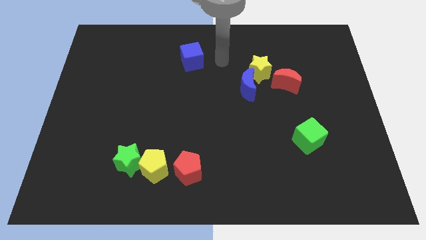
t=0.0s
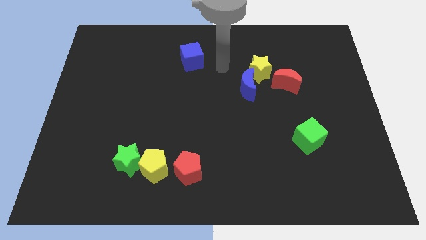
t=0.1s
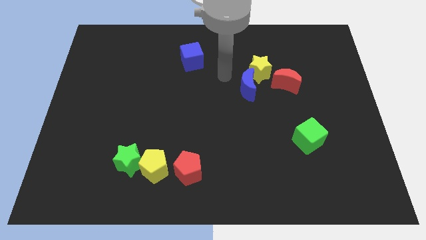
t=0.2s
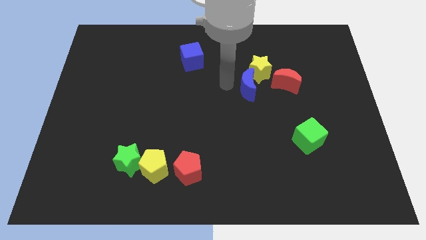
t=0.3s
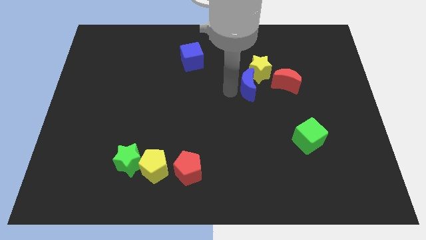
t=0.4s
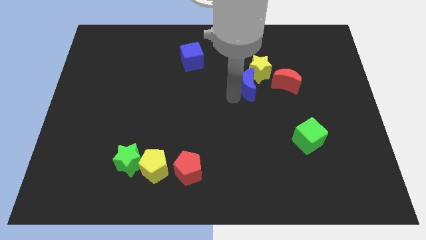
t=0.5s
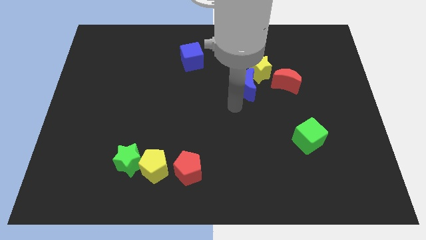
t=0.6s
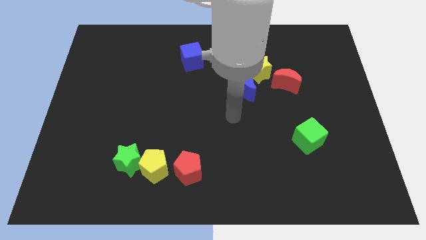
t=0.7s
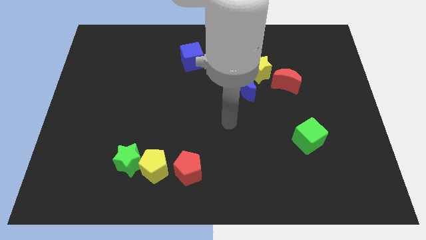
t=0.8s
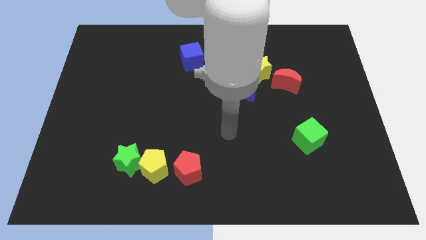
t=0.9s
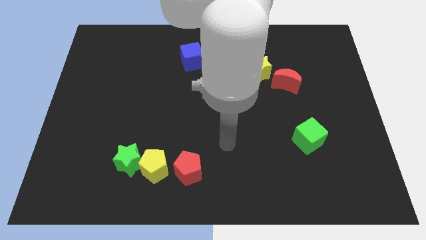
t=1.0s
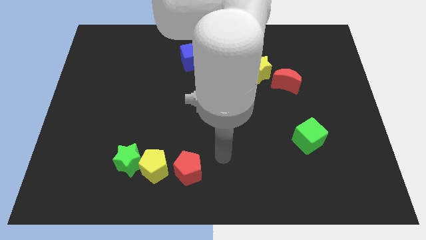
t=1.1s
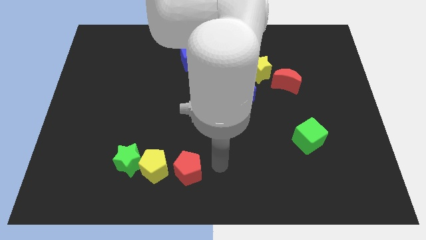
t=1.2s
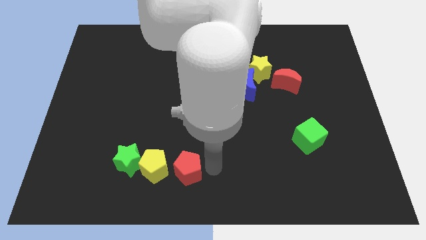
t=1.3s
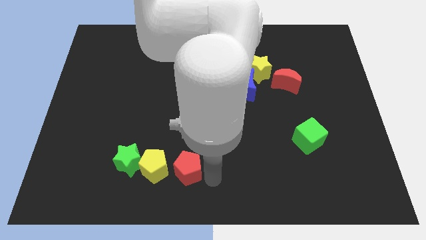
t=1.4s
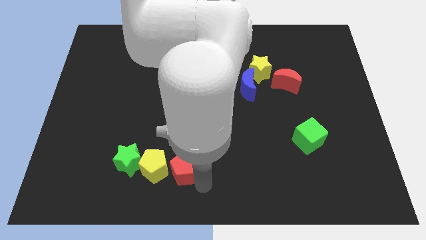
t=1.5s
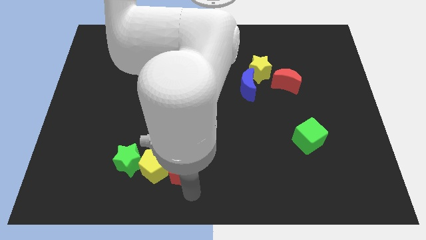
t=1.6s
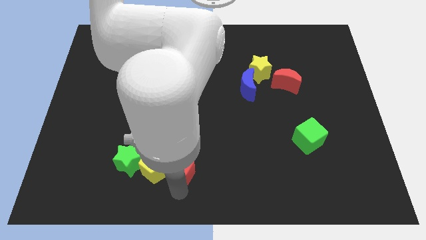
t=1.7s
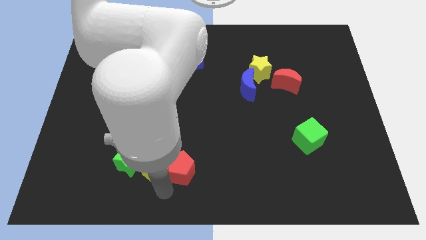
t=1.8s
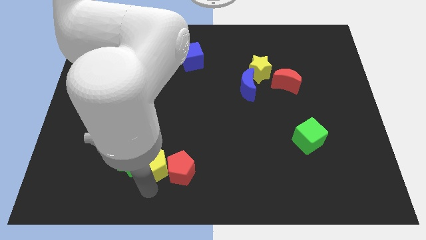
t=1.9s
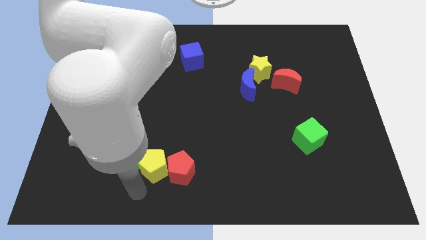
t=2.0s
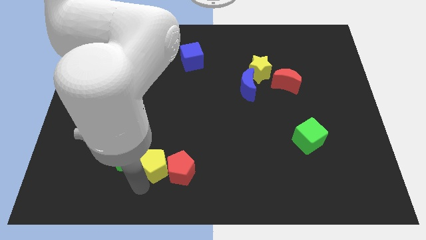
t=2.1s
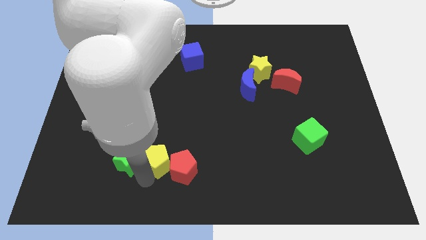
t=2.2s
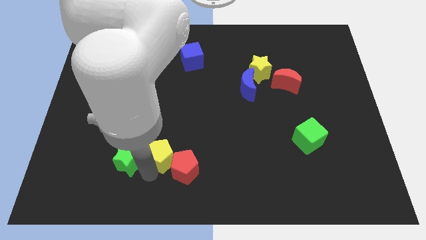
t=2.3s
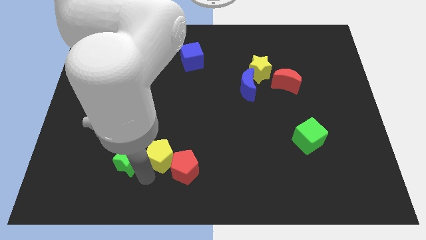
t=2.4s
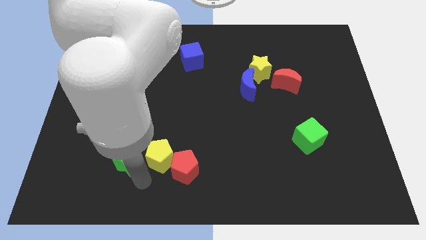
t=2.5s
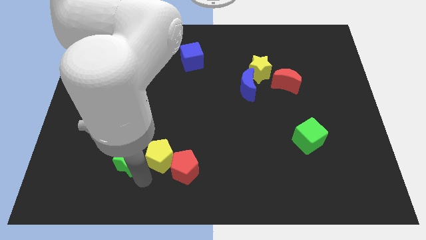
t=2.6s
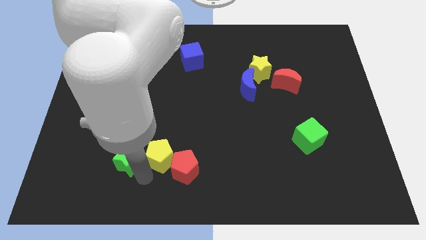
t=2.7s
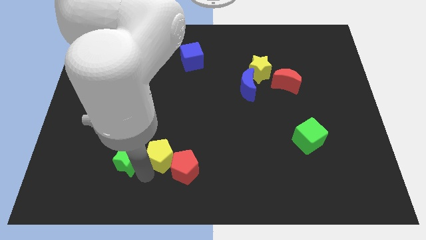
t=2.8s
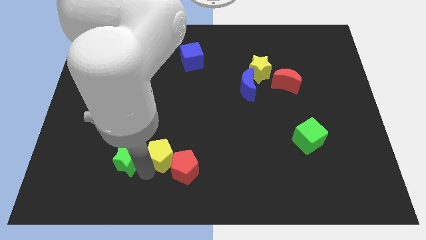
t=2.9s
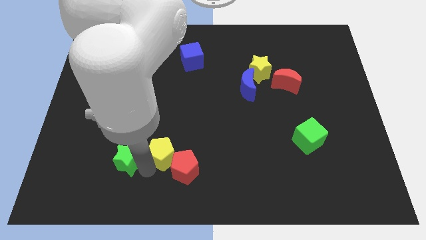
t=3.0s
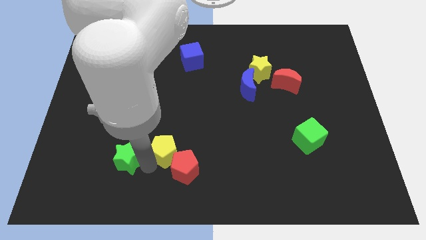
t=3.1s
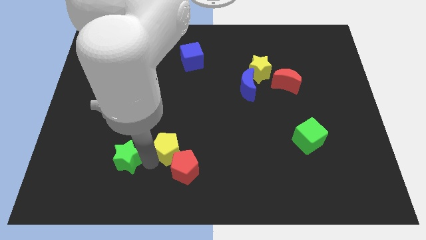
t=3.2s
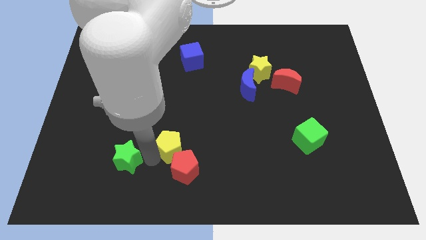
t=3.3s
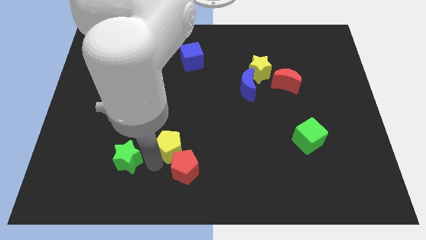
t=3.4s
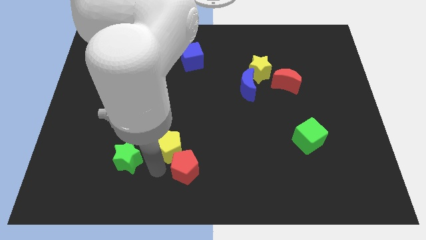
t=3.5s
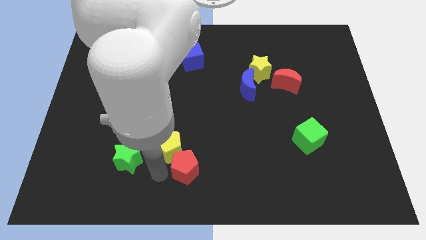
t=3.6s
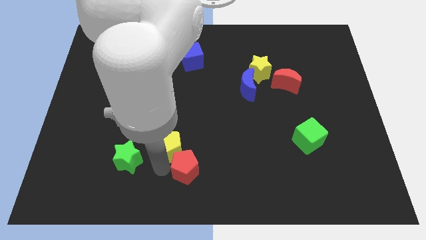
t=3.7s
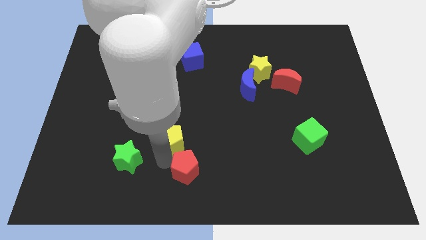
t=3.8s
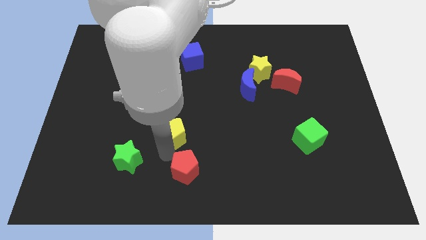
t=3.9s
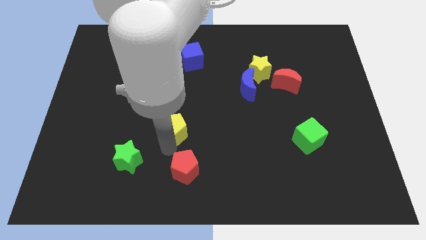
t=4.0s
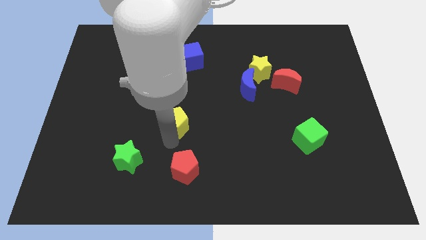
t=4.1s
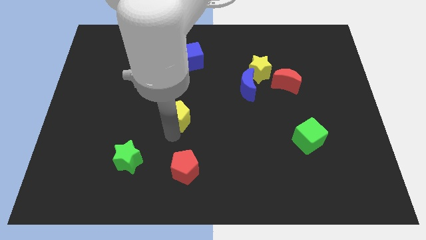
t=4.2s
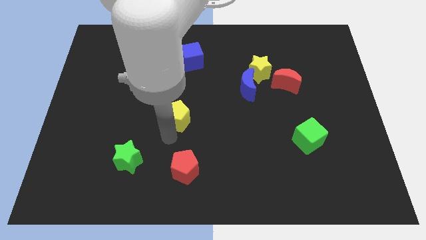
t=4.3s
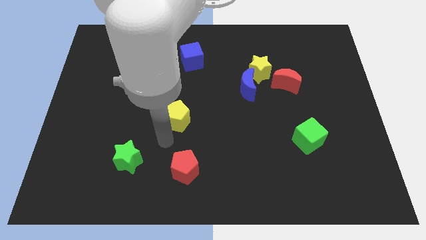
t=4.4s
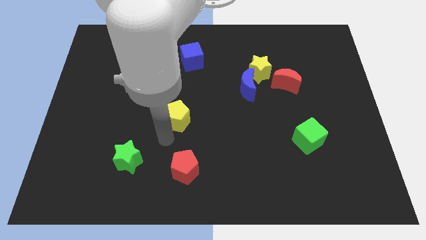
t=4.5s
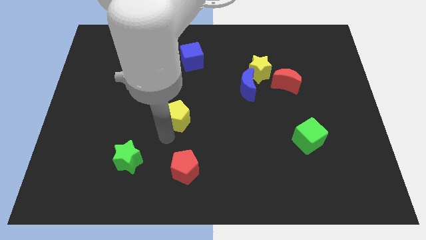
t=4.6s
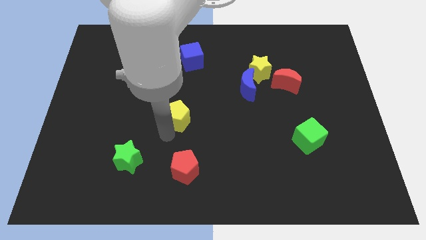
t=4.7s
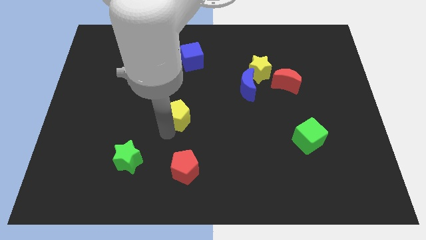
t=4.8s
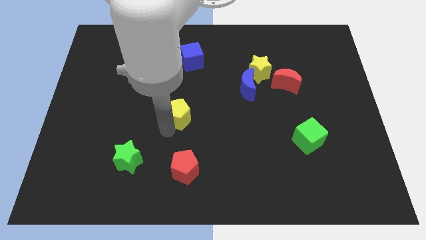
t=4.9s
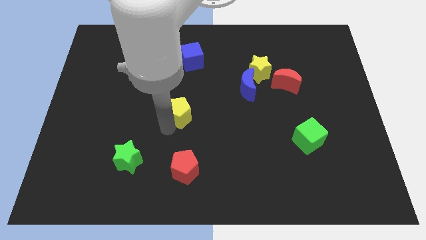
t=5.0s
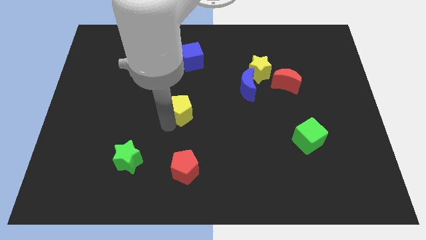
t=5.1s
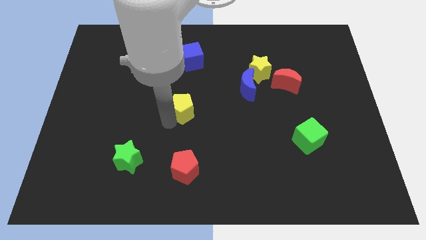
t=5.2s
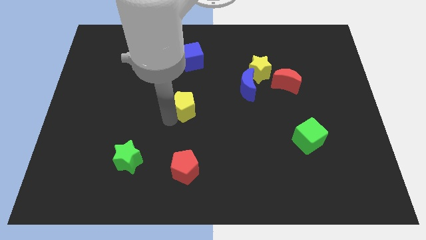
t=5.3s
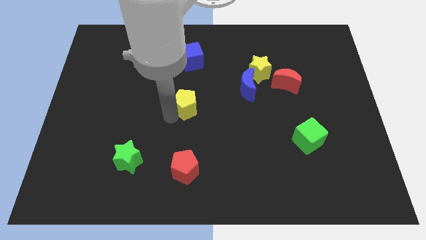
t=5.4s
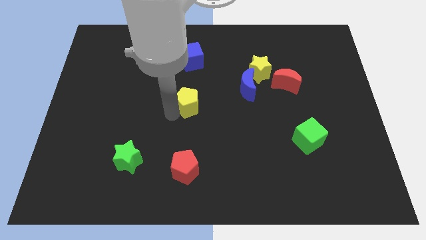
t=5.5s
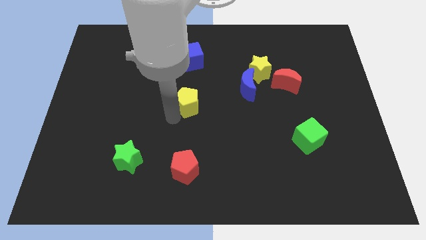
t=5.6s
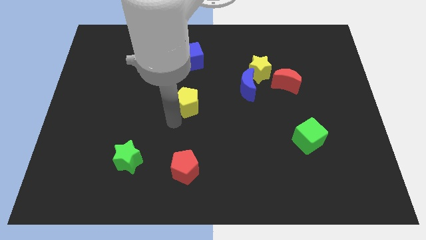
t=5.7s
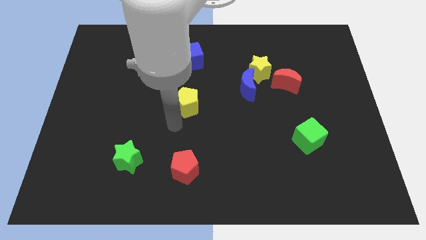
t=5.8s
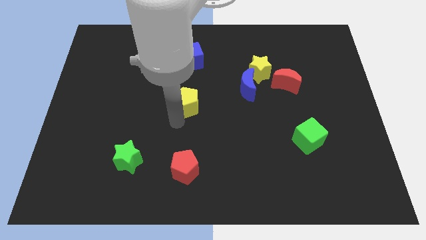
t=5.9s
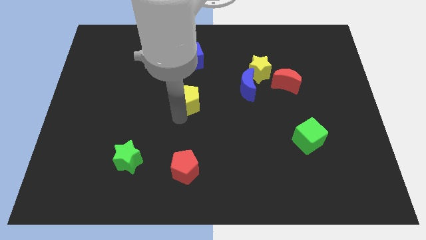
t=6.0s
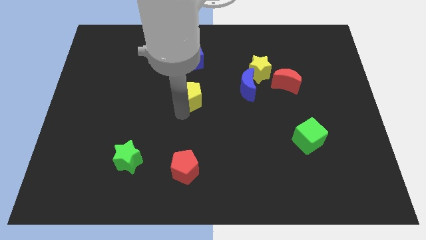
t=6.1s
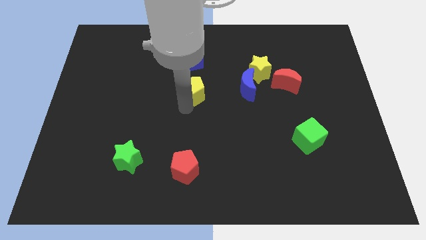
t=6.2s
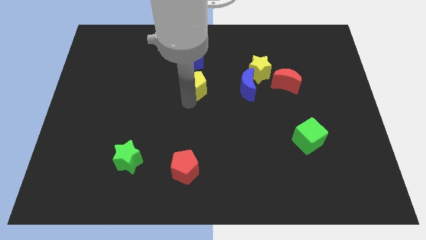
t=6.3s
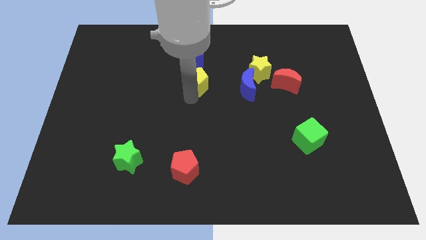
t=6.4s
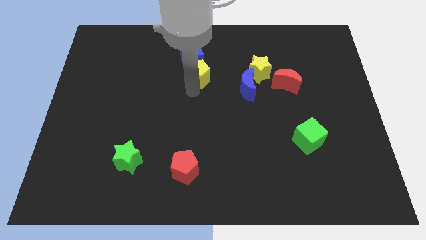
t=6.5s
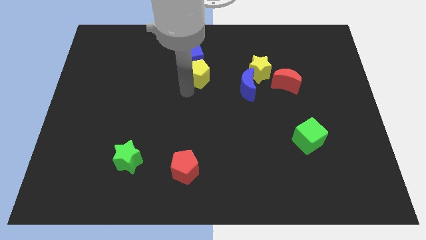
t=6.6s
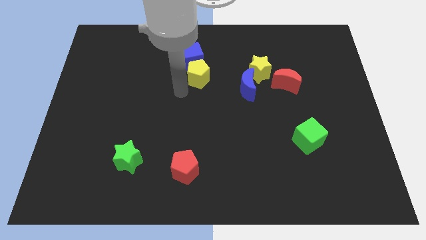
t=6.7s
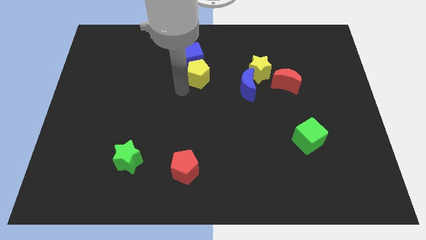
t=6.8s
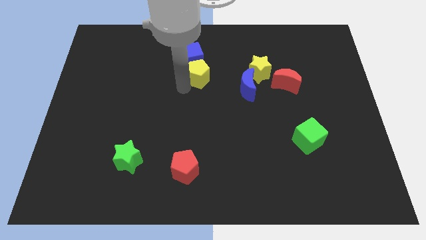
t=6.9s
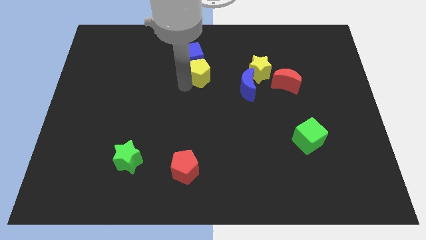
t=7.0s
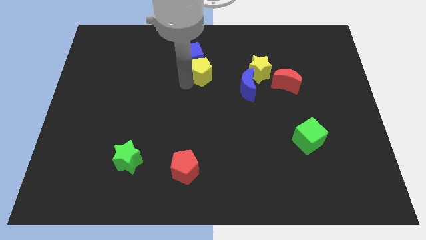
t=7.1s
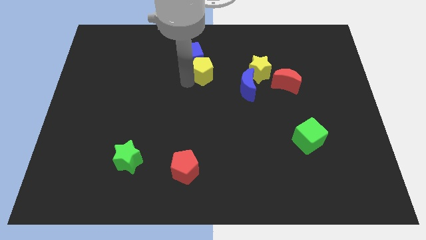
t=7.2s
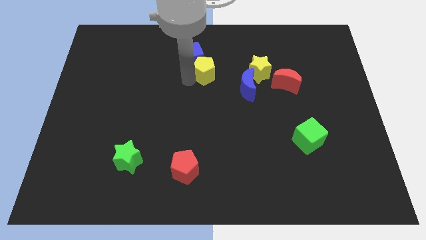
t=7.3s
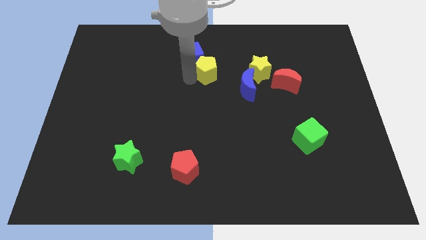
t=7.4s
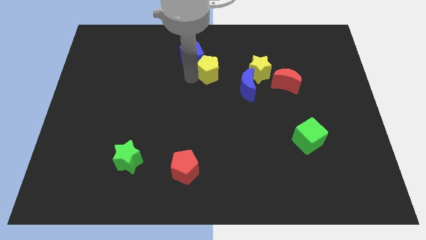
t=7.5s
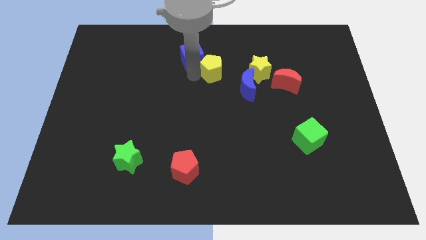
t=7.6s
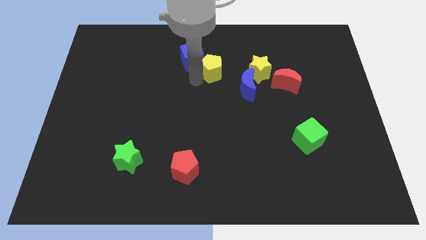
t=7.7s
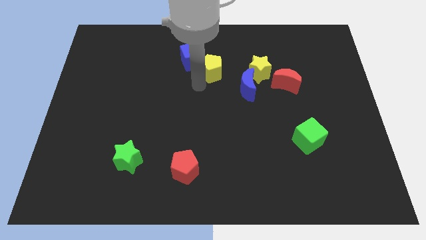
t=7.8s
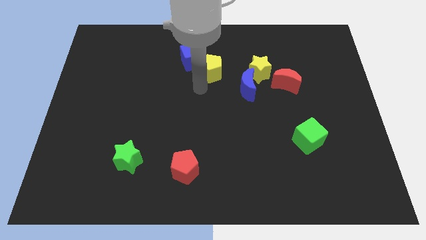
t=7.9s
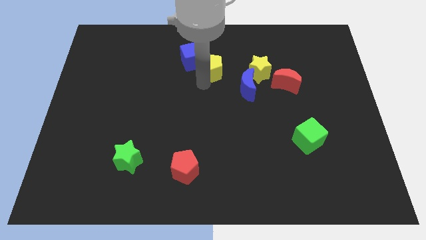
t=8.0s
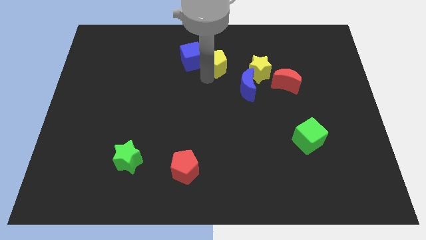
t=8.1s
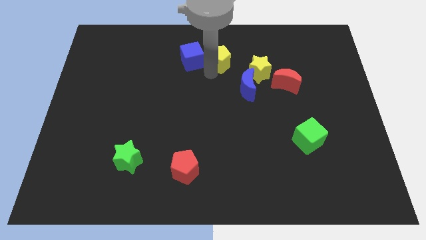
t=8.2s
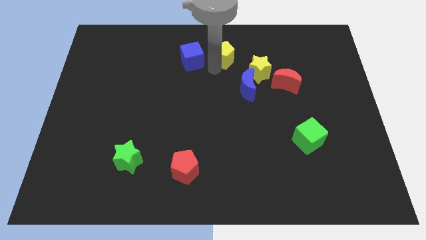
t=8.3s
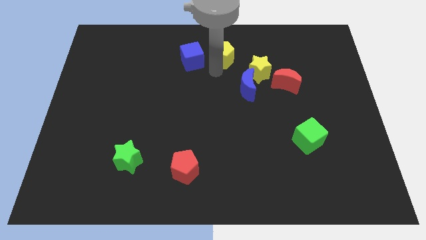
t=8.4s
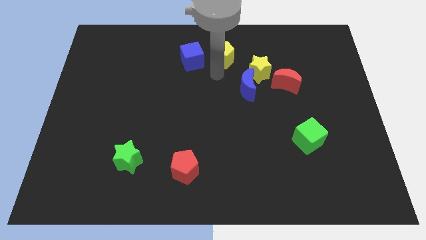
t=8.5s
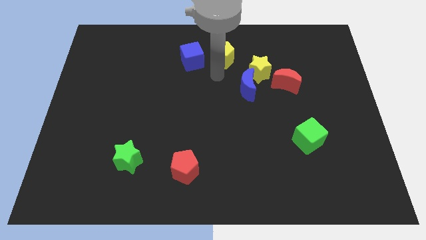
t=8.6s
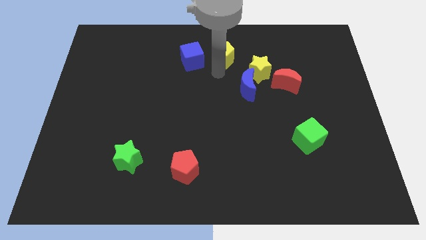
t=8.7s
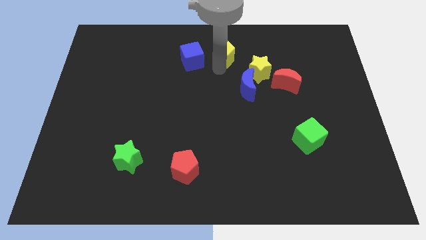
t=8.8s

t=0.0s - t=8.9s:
put the yellow pentagon to the towards your base
